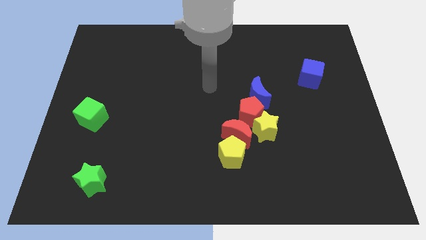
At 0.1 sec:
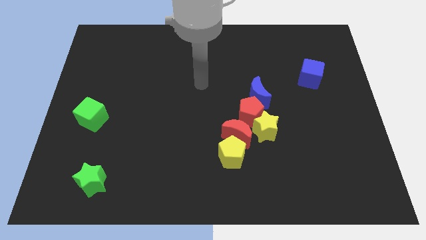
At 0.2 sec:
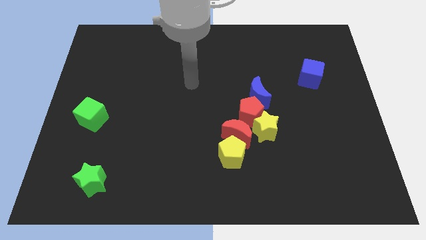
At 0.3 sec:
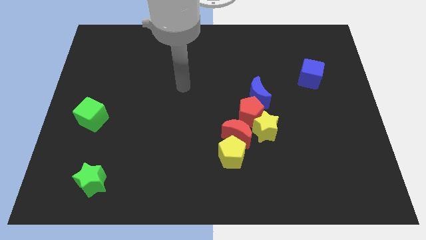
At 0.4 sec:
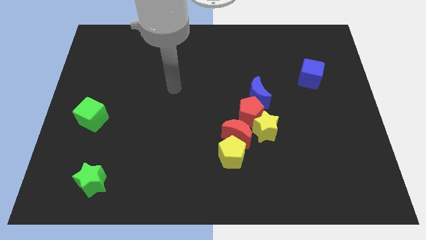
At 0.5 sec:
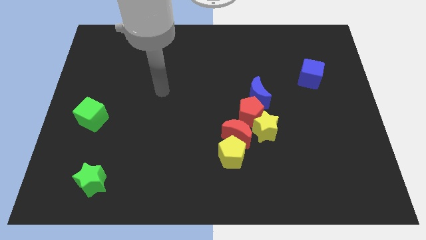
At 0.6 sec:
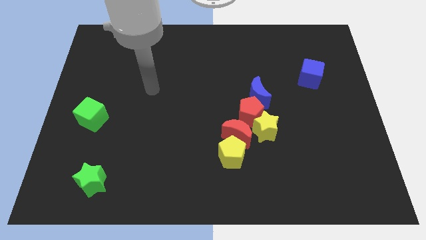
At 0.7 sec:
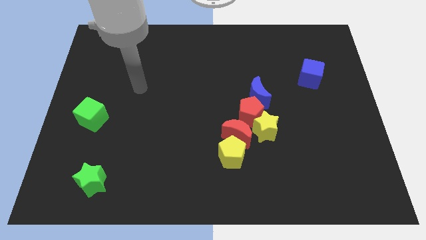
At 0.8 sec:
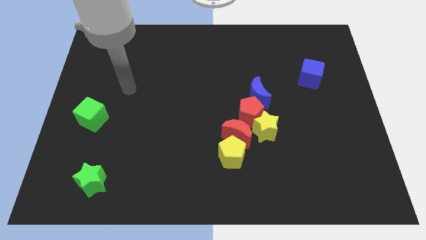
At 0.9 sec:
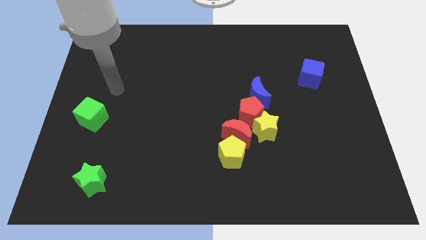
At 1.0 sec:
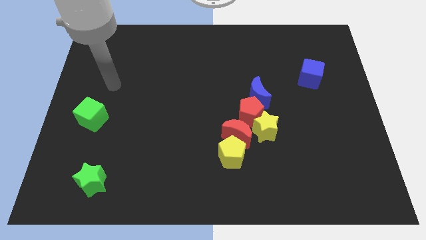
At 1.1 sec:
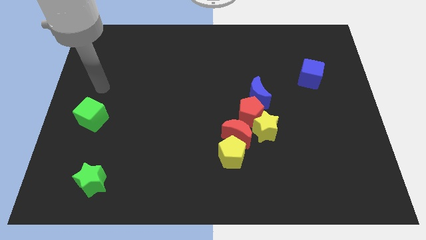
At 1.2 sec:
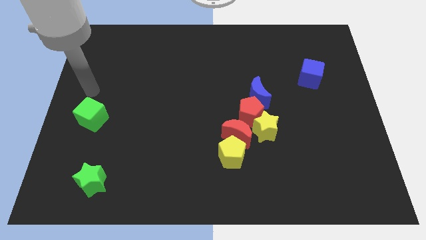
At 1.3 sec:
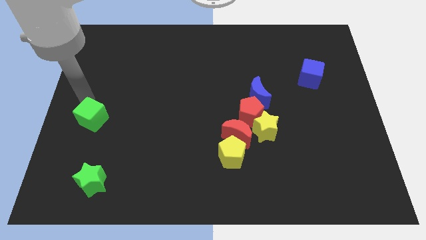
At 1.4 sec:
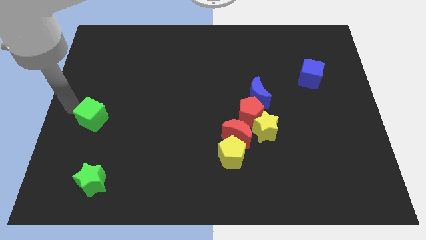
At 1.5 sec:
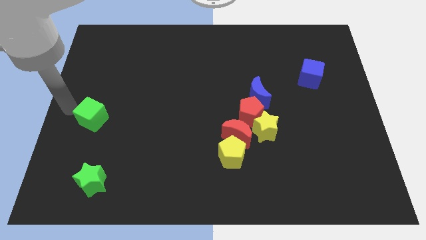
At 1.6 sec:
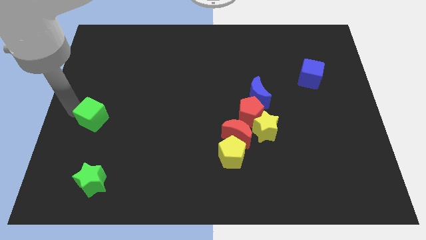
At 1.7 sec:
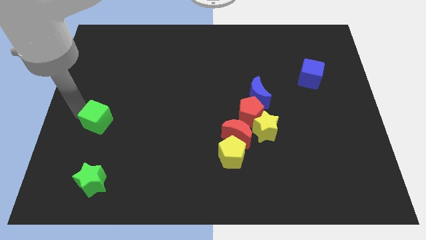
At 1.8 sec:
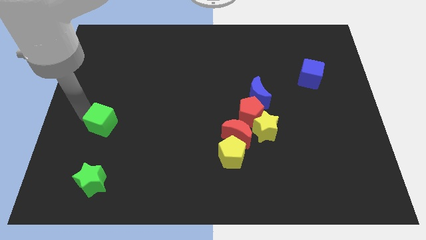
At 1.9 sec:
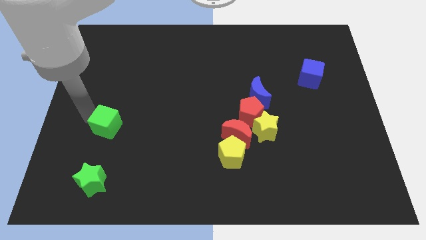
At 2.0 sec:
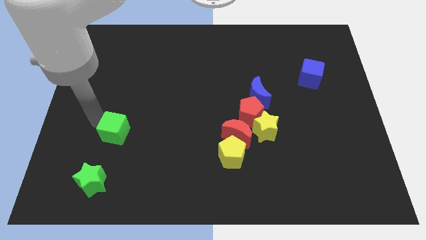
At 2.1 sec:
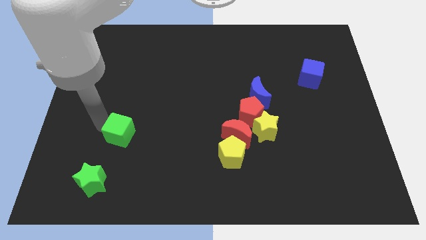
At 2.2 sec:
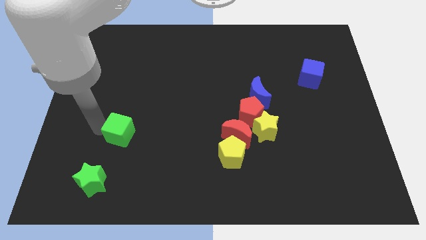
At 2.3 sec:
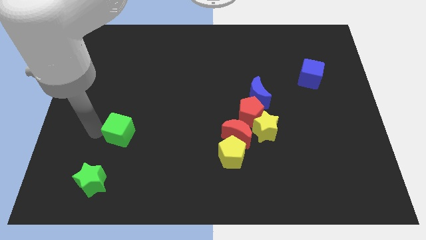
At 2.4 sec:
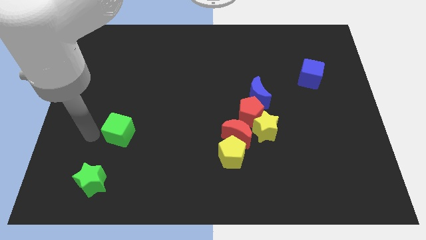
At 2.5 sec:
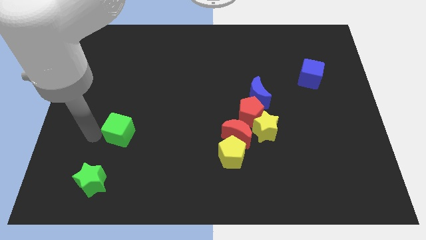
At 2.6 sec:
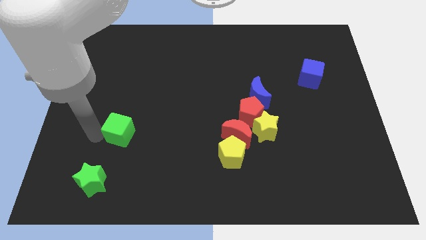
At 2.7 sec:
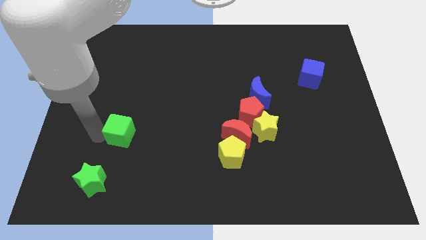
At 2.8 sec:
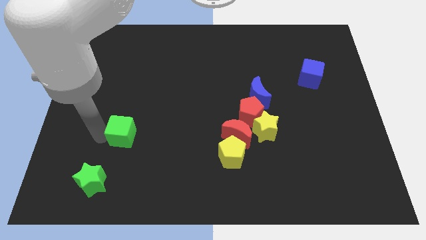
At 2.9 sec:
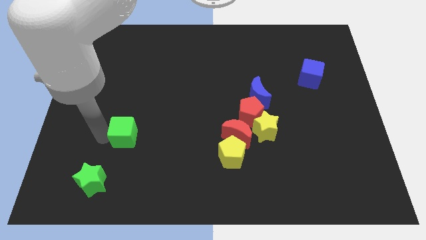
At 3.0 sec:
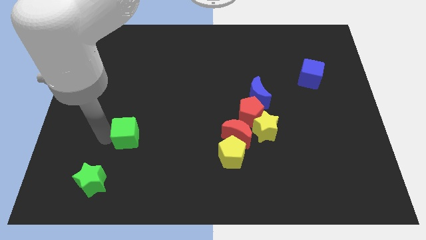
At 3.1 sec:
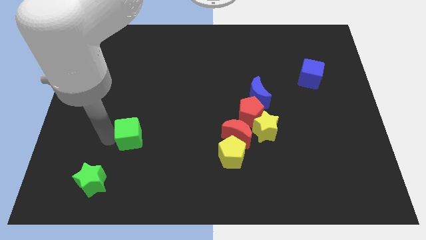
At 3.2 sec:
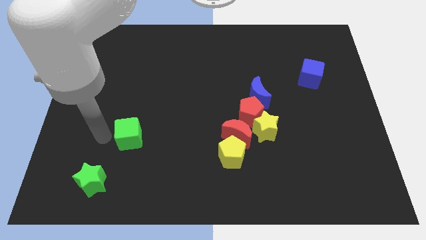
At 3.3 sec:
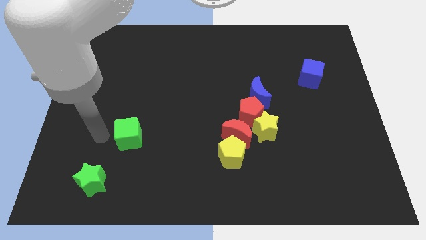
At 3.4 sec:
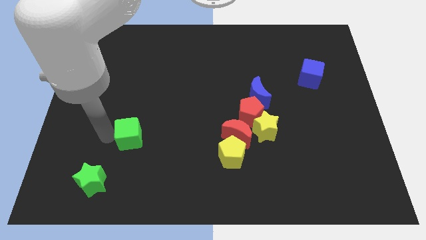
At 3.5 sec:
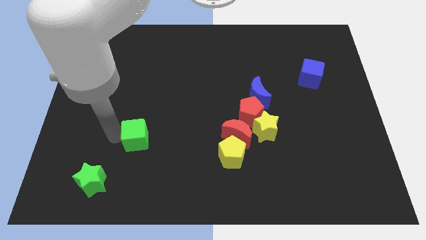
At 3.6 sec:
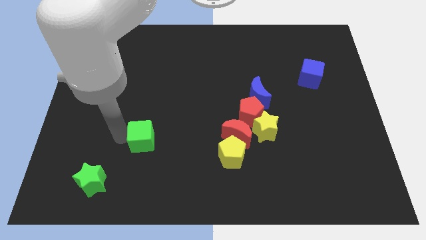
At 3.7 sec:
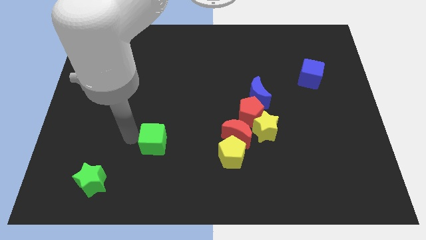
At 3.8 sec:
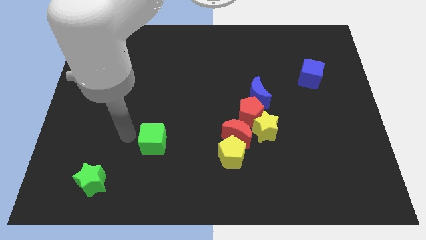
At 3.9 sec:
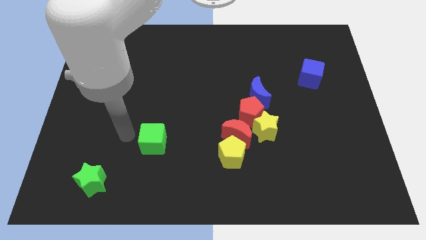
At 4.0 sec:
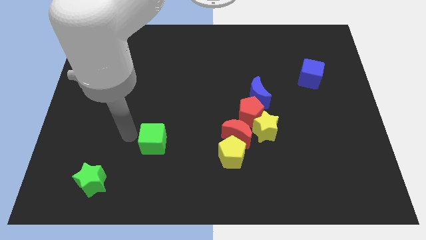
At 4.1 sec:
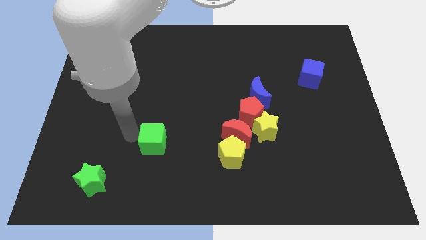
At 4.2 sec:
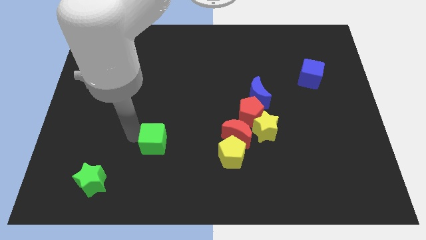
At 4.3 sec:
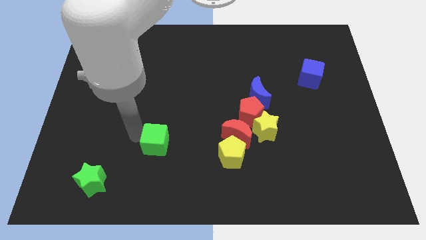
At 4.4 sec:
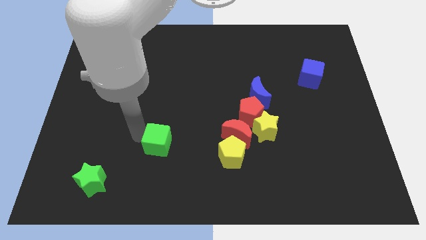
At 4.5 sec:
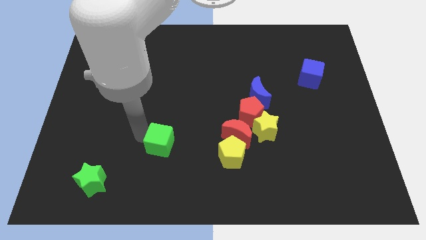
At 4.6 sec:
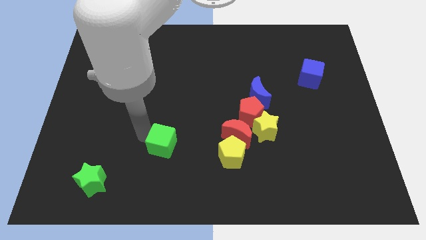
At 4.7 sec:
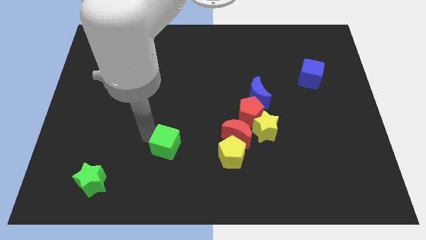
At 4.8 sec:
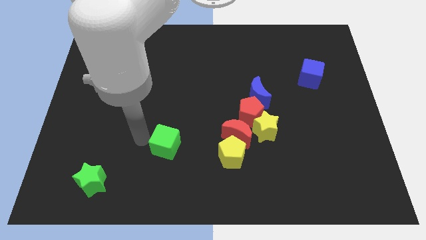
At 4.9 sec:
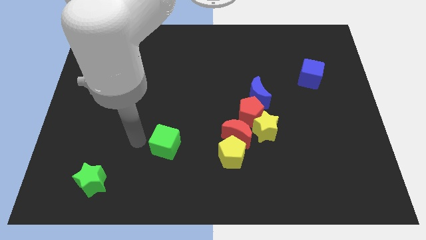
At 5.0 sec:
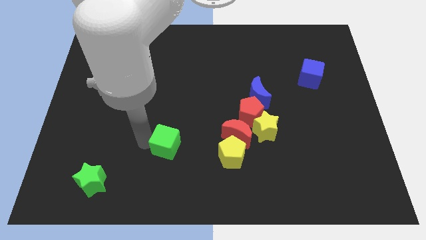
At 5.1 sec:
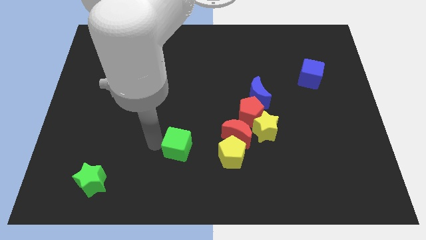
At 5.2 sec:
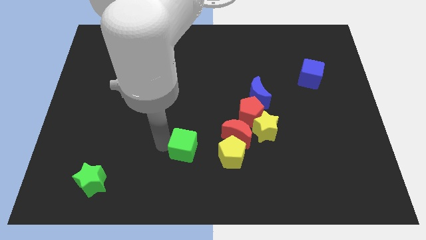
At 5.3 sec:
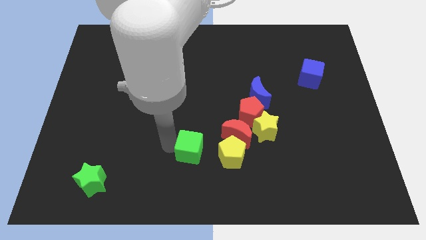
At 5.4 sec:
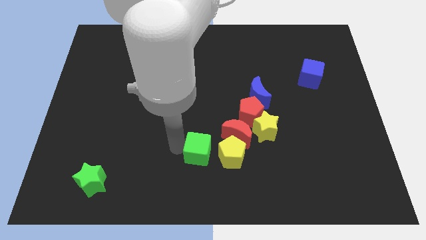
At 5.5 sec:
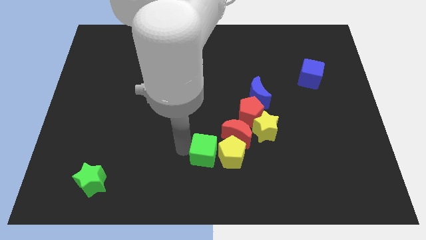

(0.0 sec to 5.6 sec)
push the green cube to the yellow pentagon

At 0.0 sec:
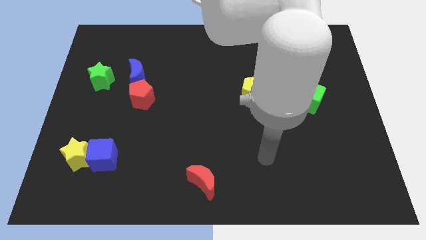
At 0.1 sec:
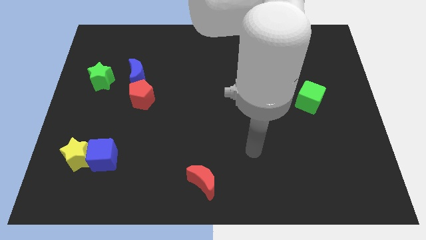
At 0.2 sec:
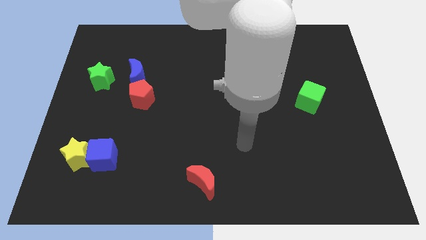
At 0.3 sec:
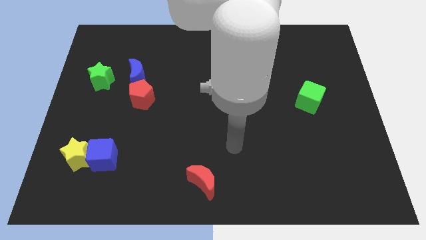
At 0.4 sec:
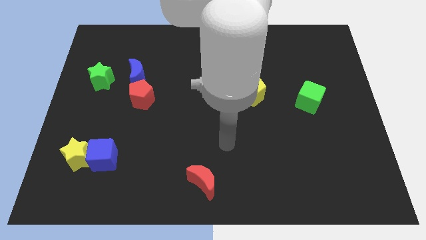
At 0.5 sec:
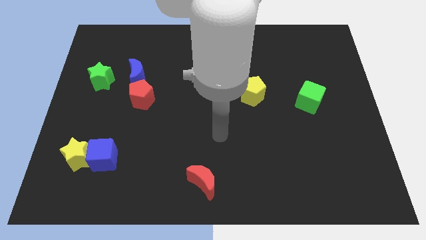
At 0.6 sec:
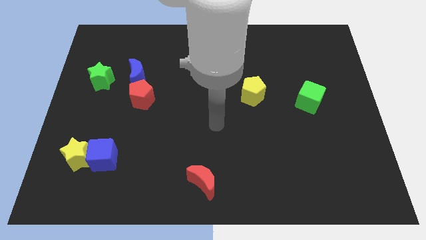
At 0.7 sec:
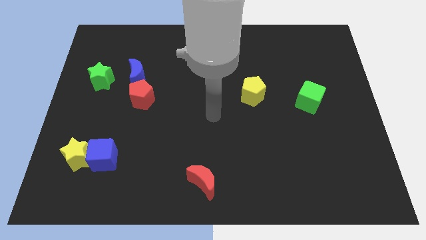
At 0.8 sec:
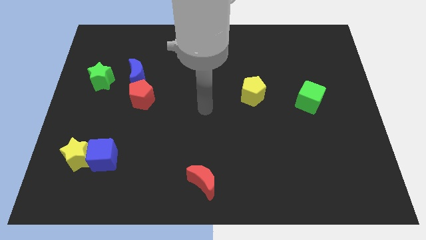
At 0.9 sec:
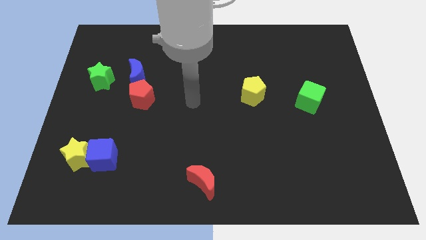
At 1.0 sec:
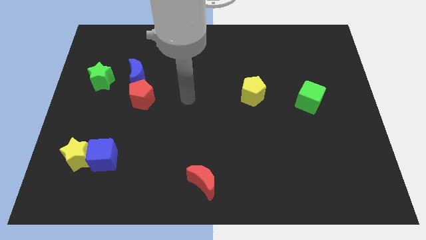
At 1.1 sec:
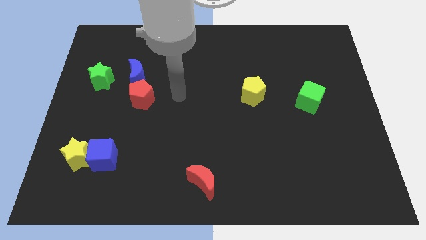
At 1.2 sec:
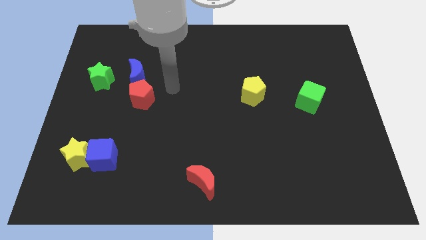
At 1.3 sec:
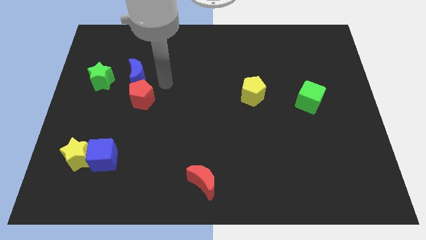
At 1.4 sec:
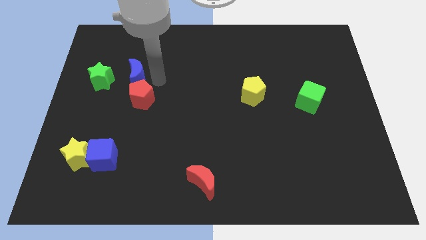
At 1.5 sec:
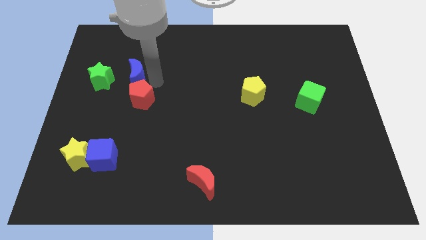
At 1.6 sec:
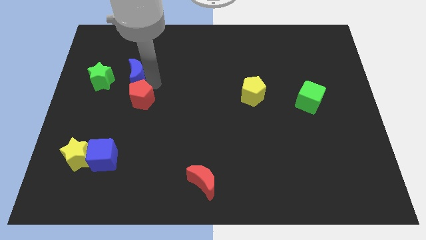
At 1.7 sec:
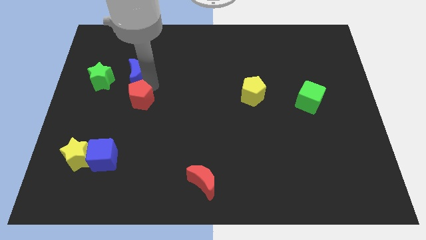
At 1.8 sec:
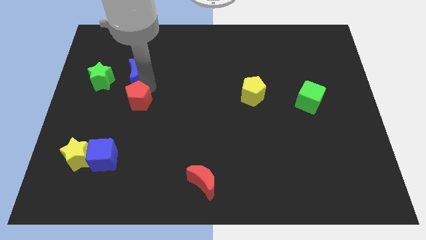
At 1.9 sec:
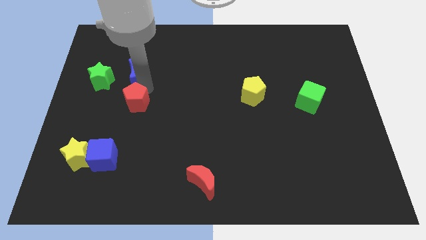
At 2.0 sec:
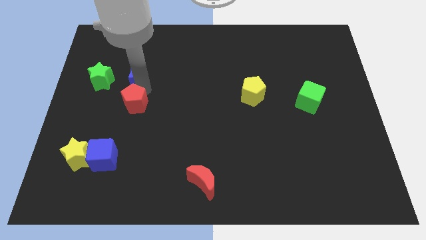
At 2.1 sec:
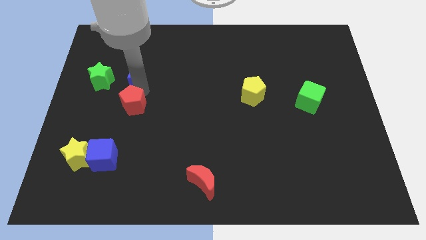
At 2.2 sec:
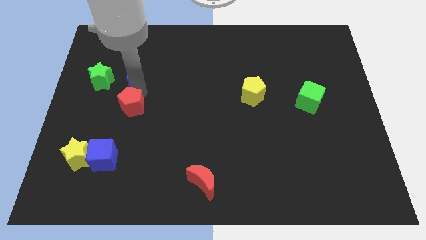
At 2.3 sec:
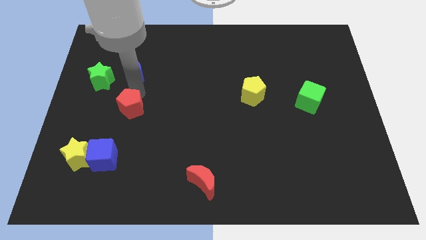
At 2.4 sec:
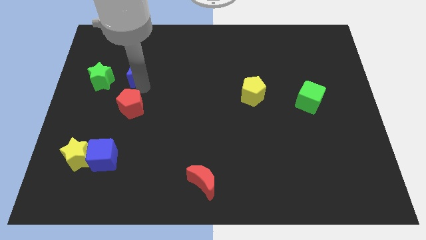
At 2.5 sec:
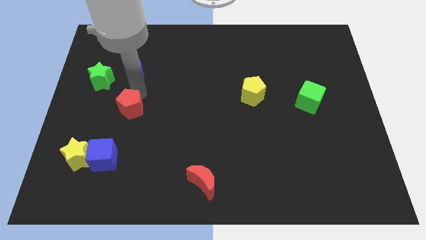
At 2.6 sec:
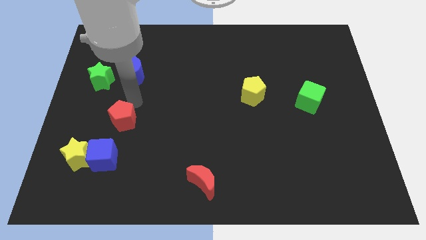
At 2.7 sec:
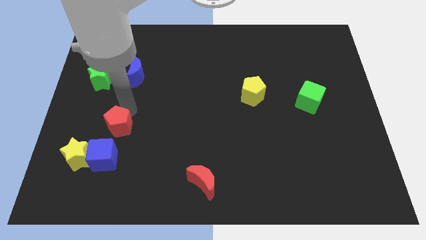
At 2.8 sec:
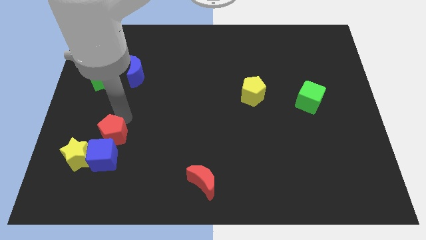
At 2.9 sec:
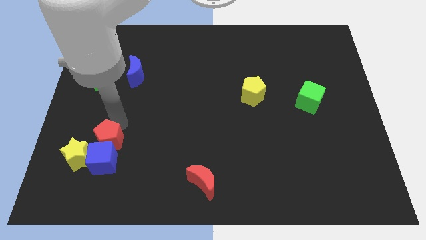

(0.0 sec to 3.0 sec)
move the red pentagon close to the blue cube
